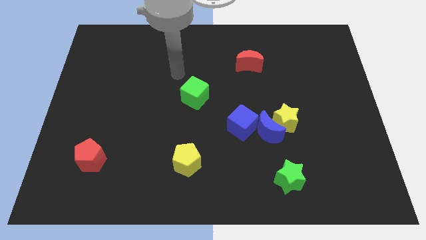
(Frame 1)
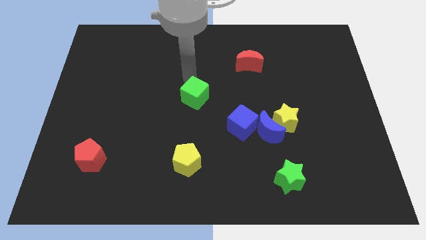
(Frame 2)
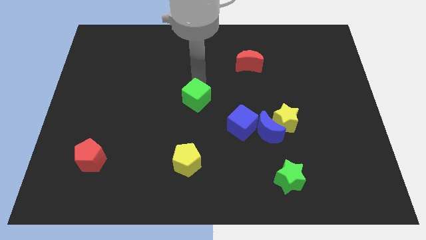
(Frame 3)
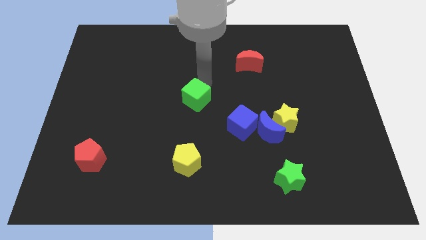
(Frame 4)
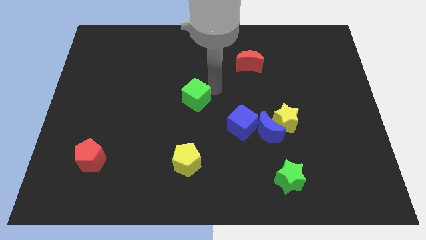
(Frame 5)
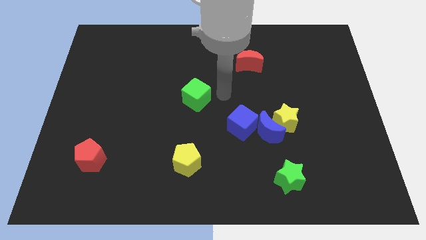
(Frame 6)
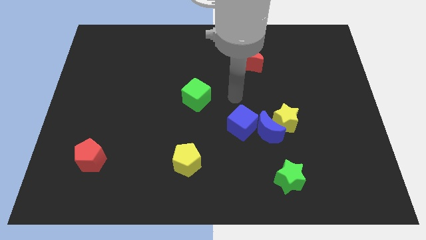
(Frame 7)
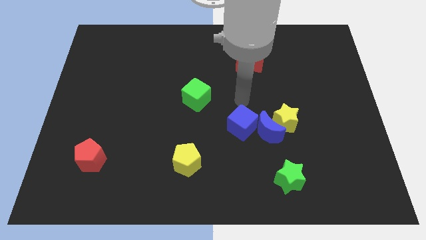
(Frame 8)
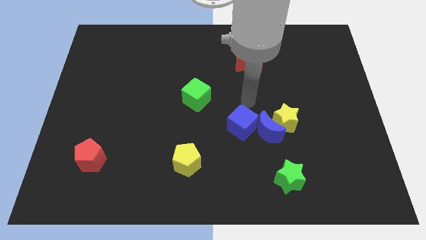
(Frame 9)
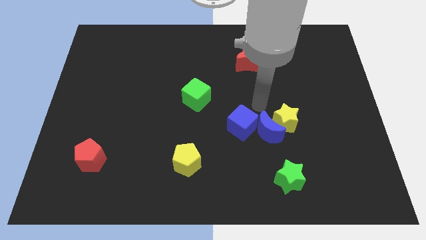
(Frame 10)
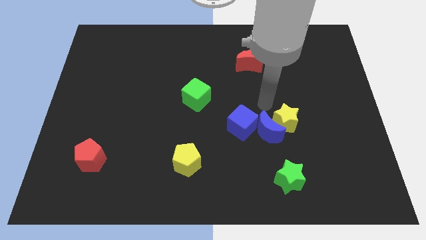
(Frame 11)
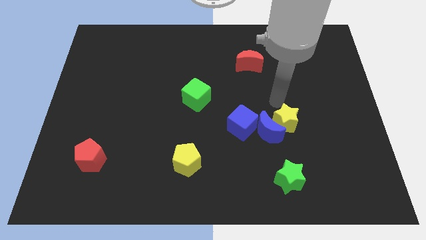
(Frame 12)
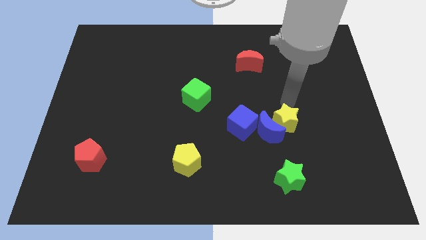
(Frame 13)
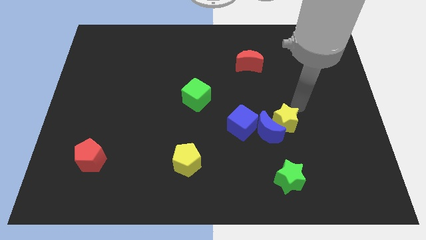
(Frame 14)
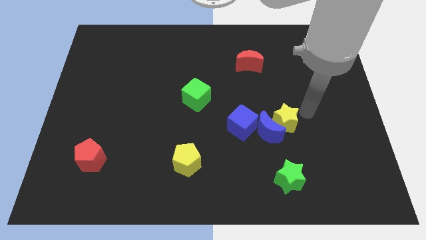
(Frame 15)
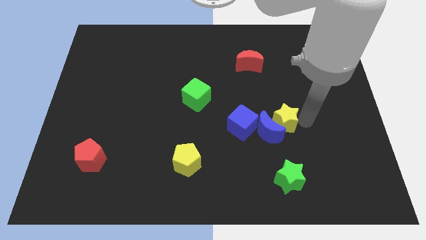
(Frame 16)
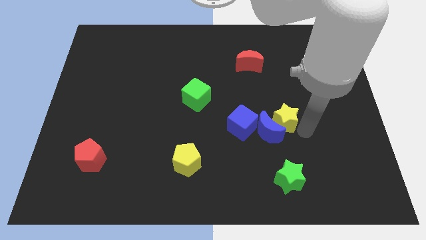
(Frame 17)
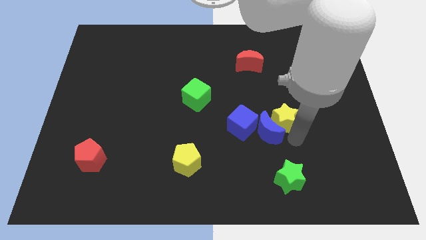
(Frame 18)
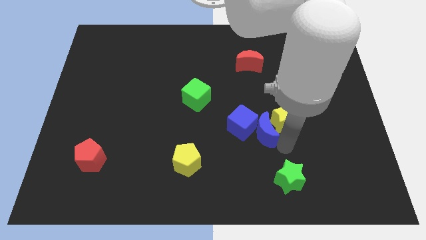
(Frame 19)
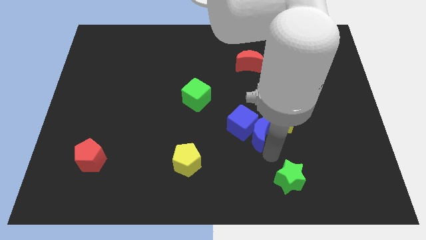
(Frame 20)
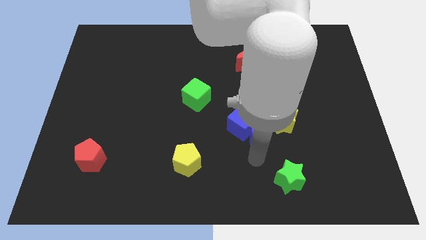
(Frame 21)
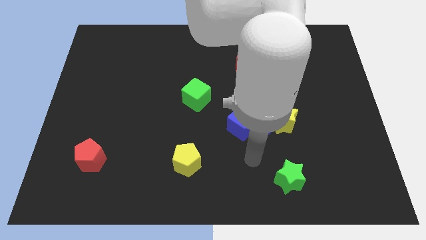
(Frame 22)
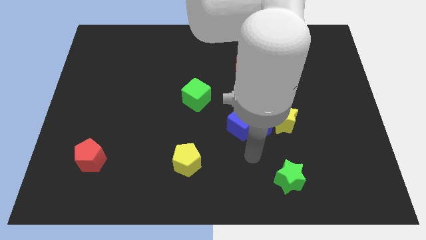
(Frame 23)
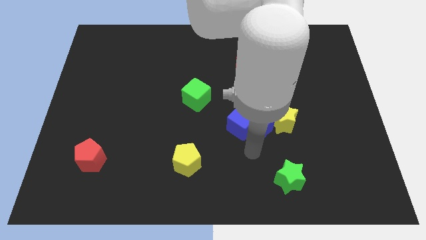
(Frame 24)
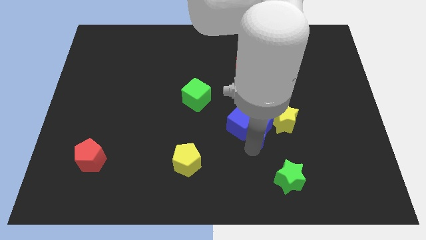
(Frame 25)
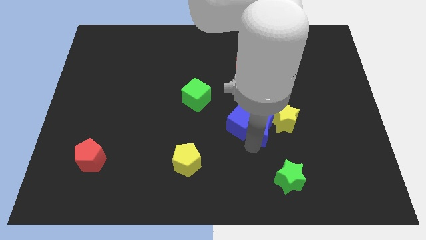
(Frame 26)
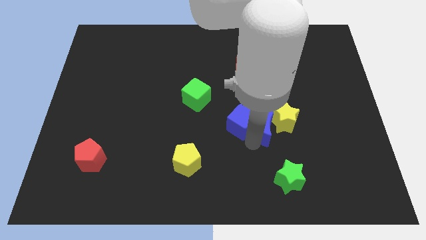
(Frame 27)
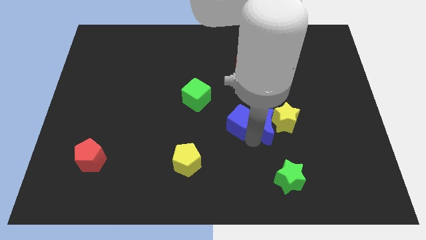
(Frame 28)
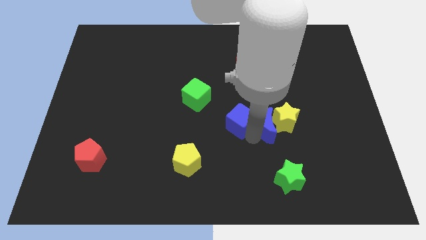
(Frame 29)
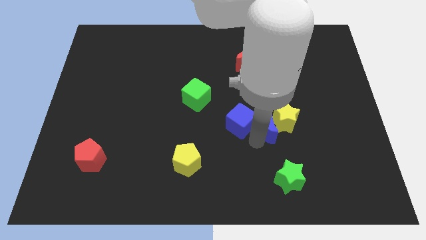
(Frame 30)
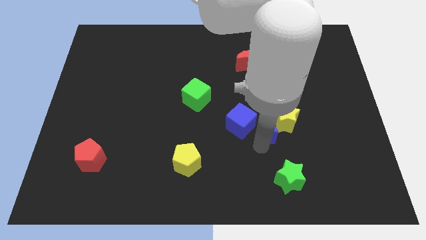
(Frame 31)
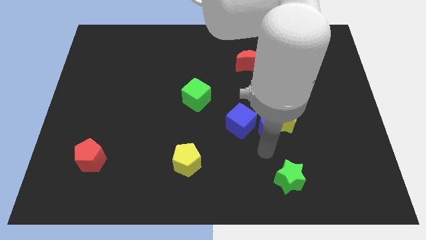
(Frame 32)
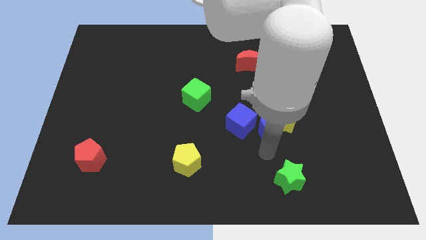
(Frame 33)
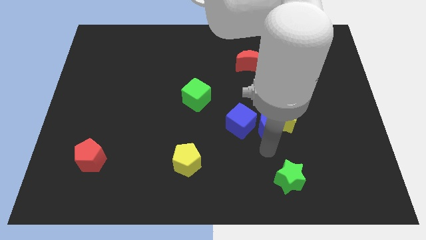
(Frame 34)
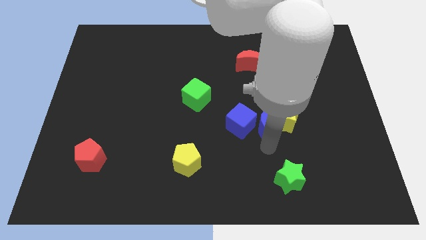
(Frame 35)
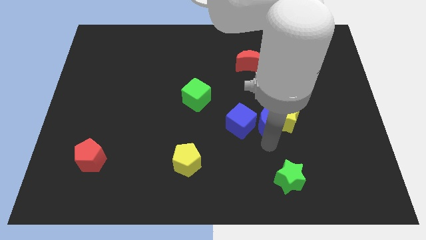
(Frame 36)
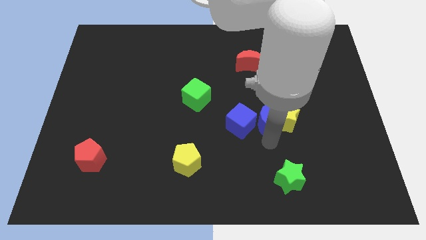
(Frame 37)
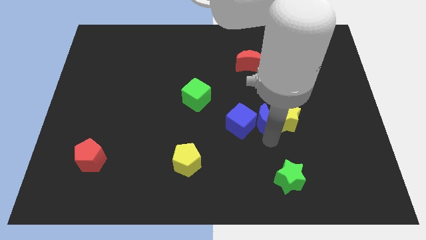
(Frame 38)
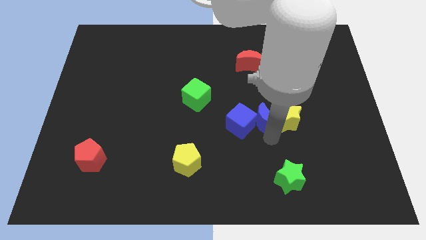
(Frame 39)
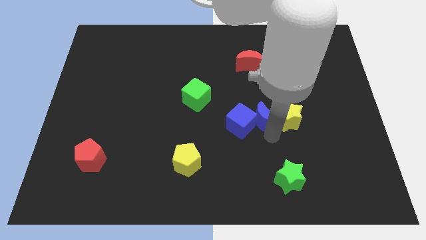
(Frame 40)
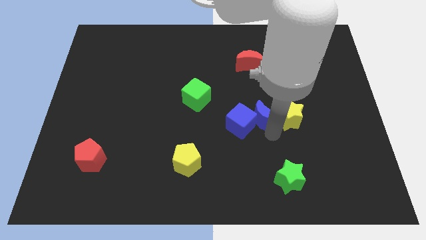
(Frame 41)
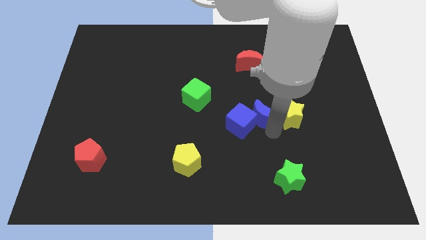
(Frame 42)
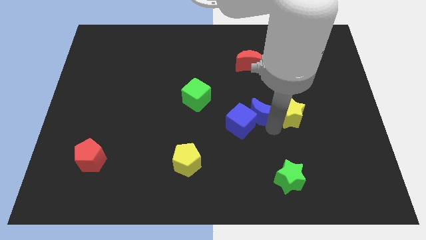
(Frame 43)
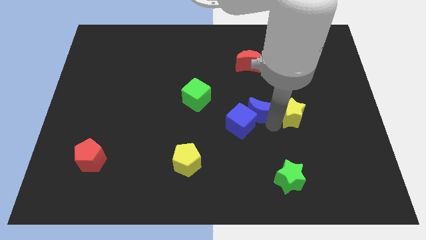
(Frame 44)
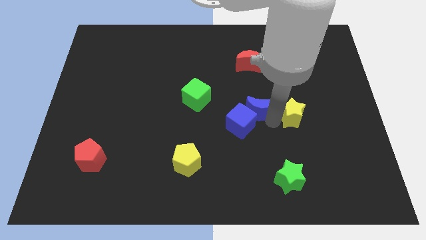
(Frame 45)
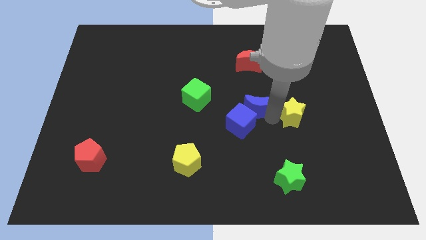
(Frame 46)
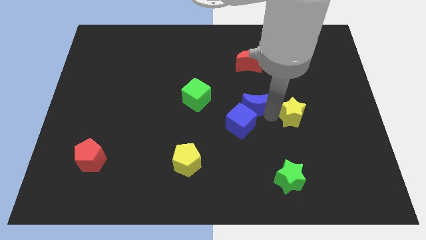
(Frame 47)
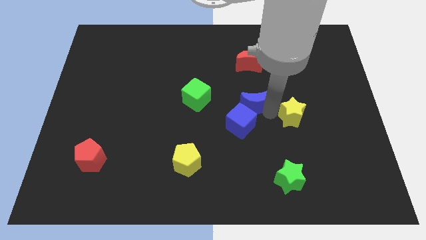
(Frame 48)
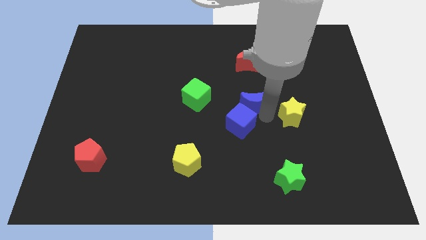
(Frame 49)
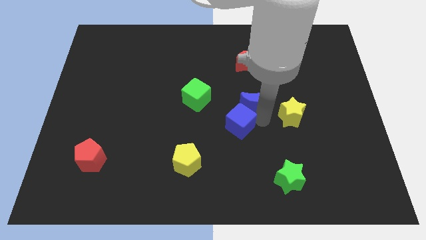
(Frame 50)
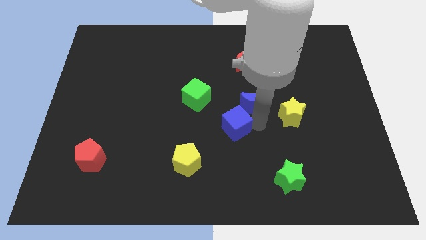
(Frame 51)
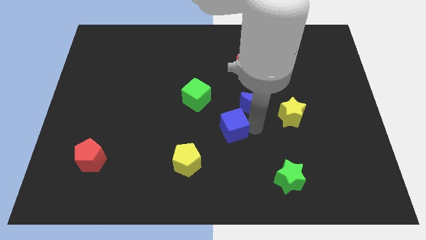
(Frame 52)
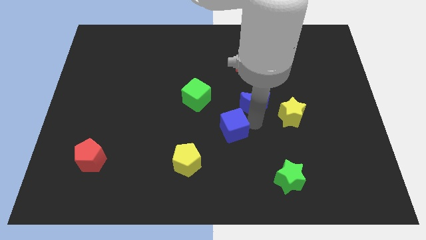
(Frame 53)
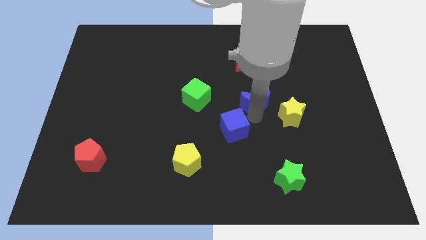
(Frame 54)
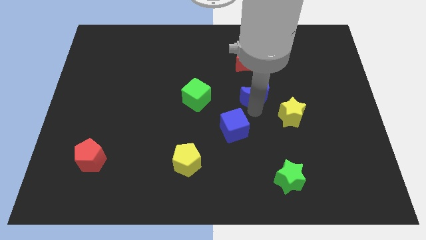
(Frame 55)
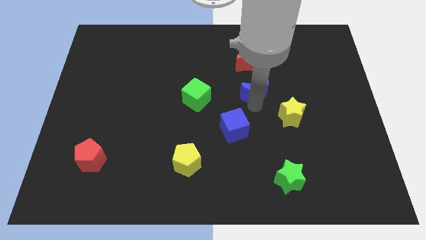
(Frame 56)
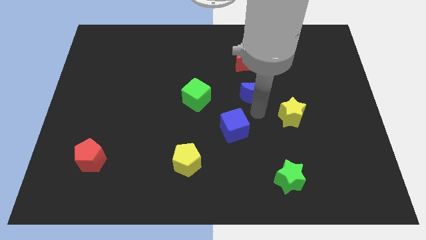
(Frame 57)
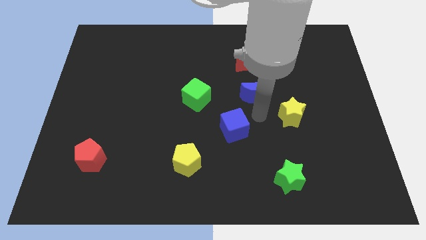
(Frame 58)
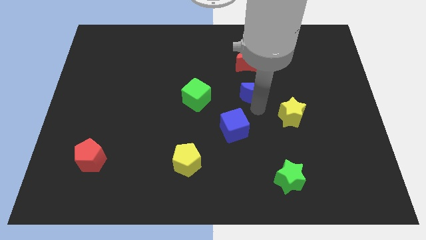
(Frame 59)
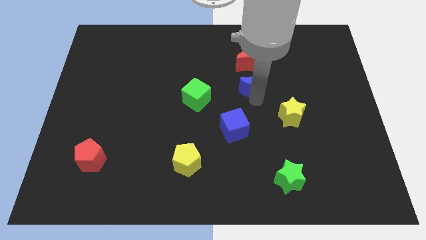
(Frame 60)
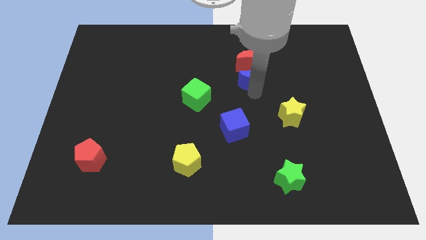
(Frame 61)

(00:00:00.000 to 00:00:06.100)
push the blue moon towards the red moon
